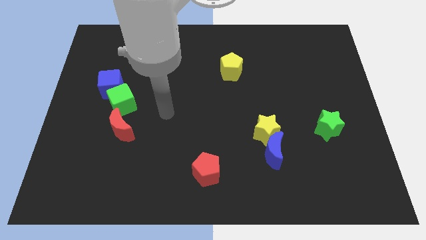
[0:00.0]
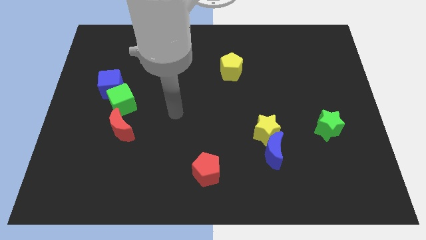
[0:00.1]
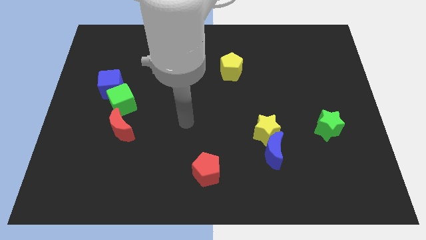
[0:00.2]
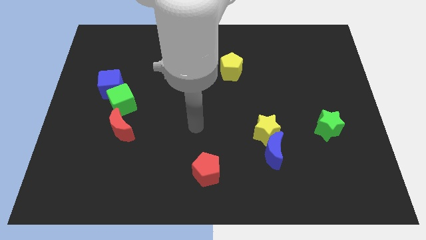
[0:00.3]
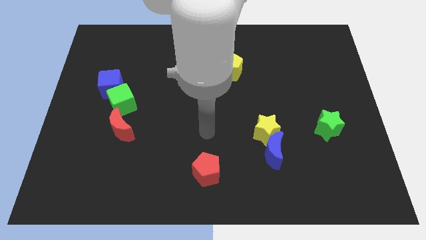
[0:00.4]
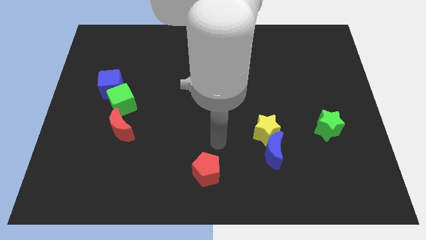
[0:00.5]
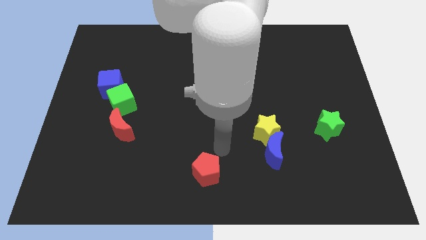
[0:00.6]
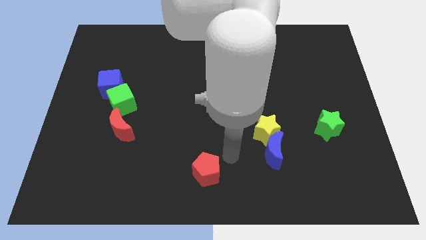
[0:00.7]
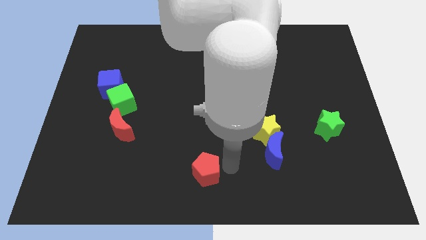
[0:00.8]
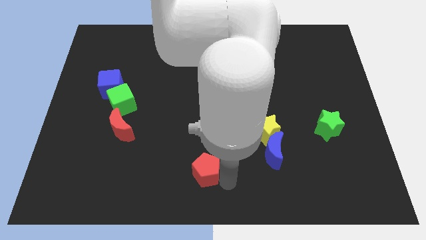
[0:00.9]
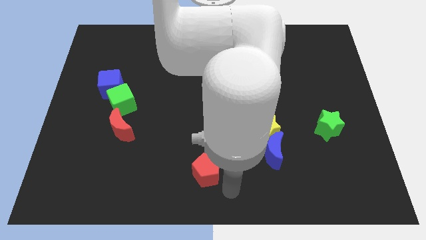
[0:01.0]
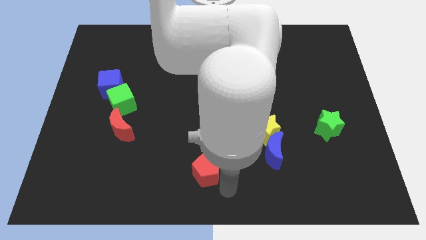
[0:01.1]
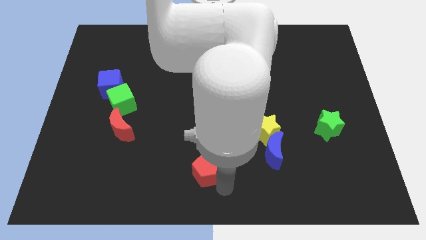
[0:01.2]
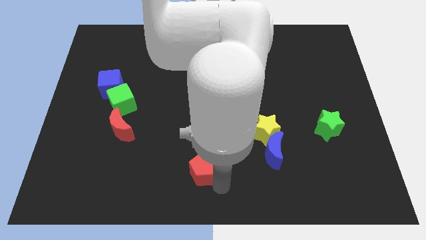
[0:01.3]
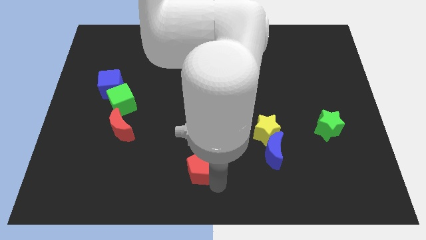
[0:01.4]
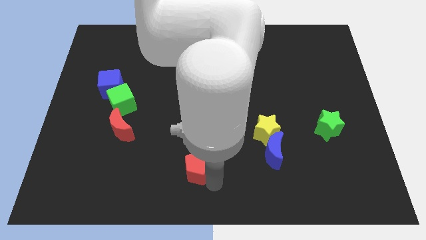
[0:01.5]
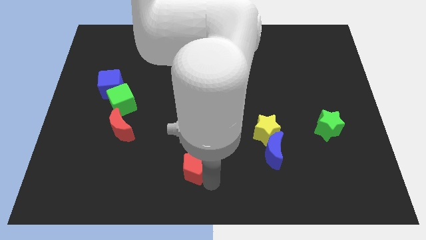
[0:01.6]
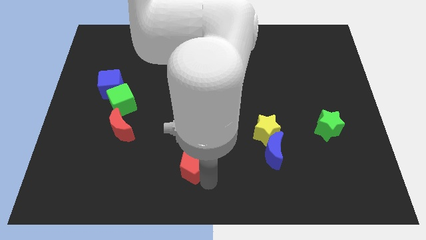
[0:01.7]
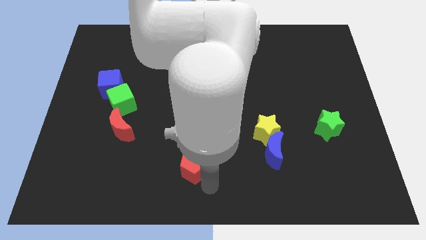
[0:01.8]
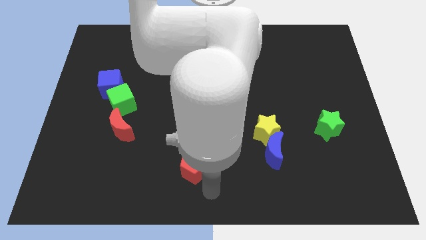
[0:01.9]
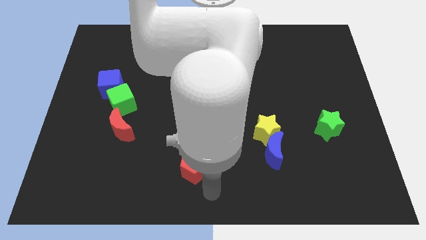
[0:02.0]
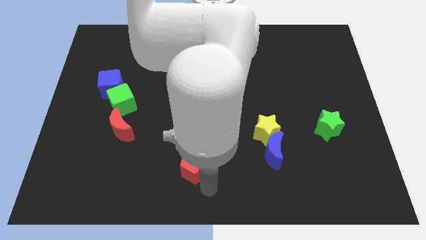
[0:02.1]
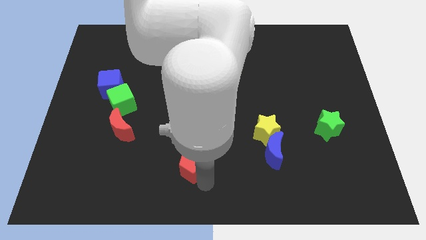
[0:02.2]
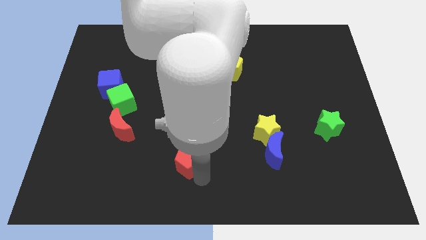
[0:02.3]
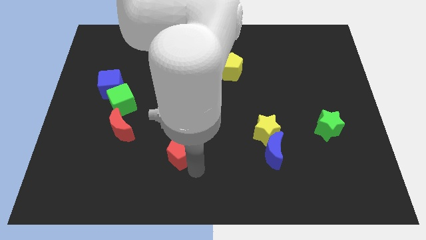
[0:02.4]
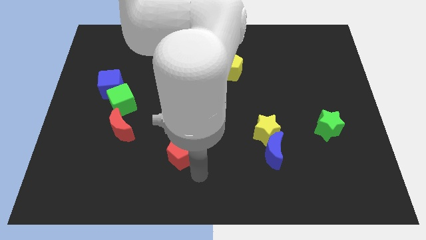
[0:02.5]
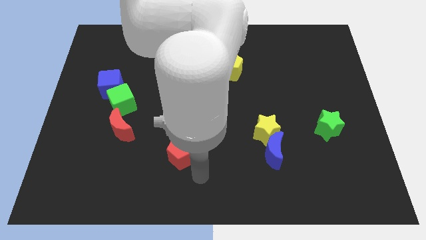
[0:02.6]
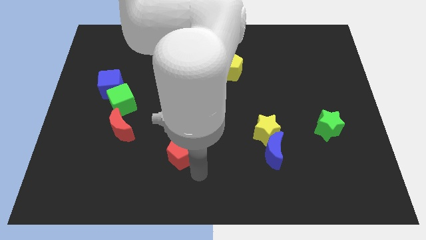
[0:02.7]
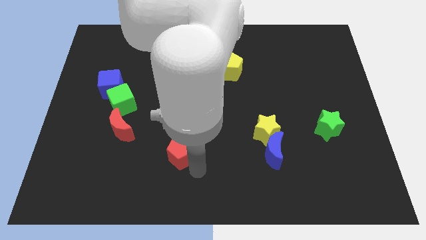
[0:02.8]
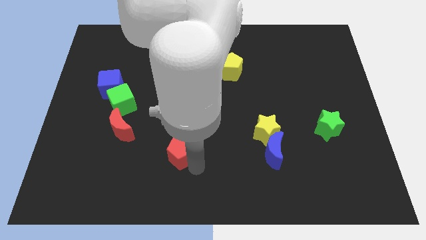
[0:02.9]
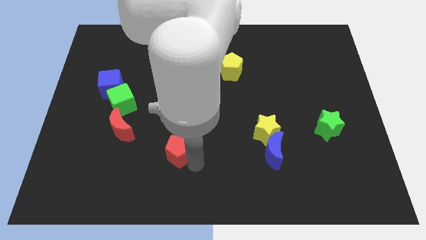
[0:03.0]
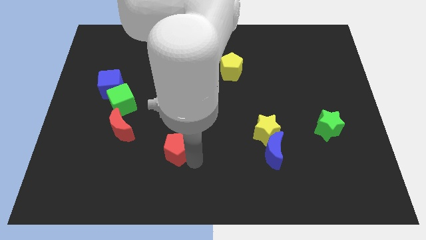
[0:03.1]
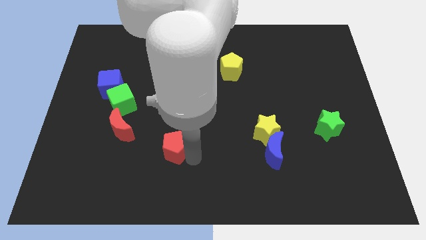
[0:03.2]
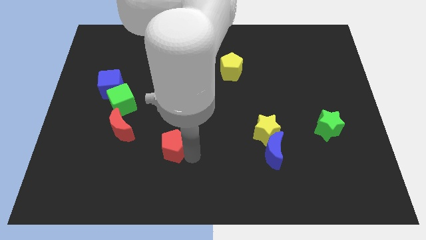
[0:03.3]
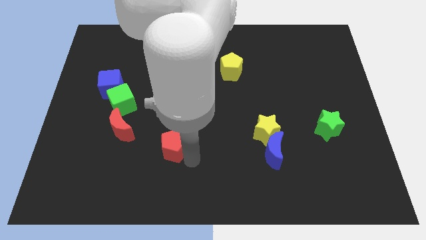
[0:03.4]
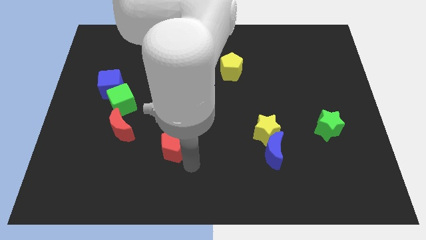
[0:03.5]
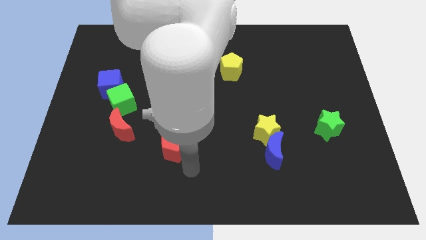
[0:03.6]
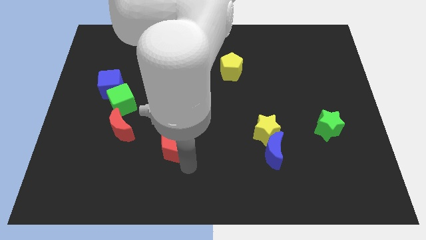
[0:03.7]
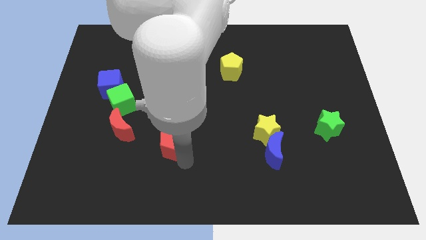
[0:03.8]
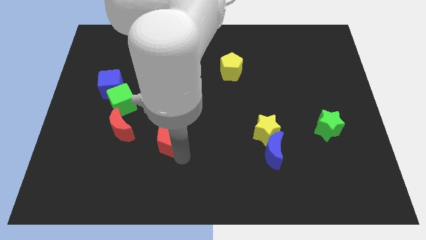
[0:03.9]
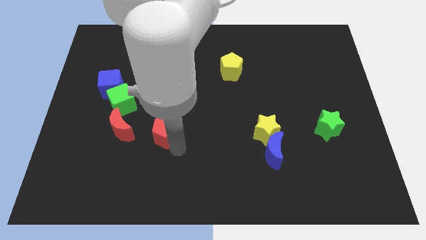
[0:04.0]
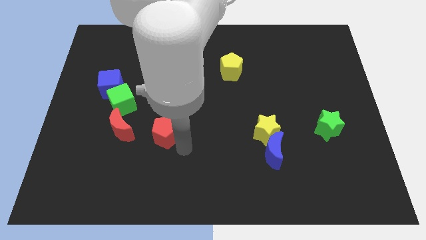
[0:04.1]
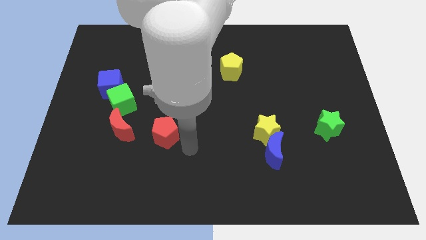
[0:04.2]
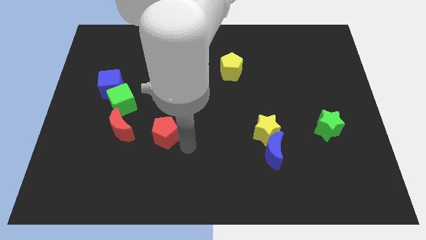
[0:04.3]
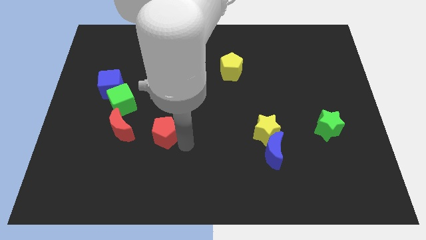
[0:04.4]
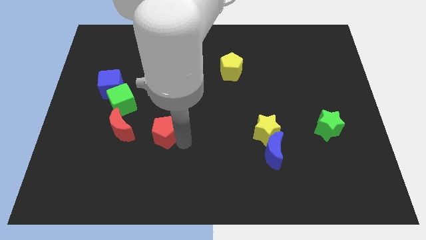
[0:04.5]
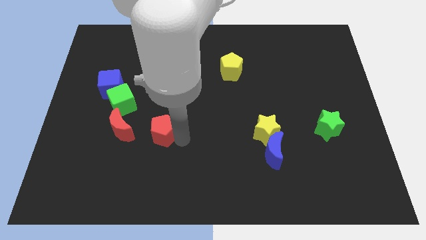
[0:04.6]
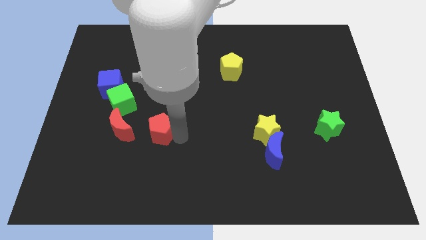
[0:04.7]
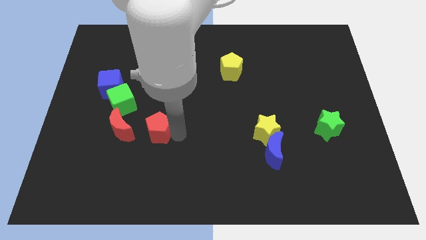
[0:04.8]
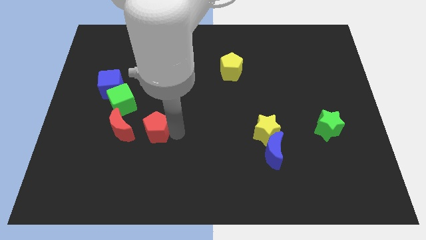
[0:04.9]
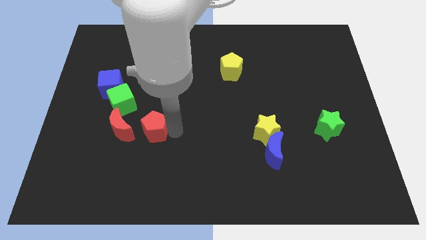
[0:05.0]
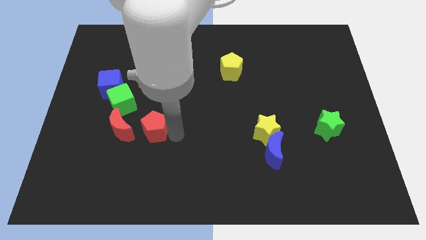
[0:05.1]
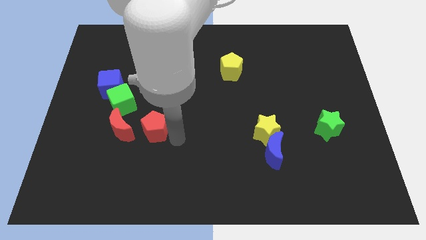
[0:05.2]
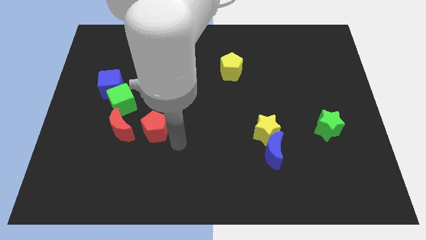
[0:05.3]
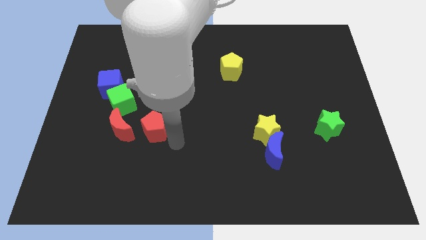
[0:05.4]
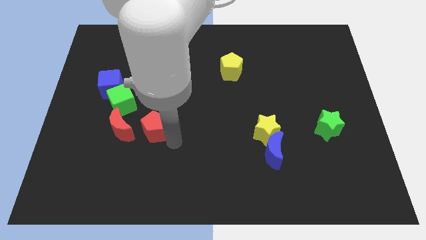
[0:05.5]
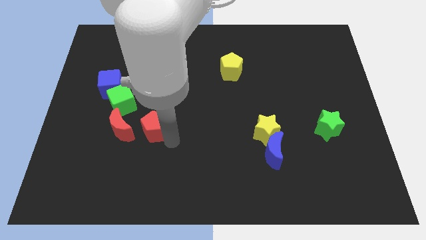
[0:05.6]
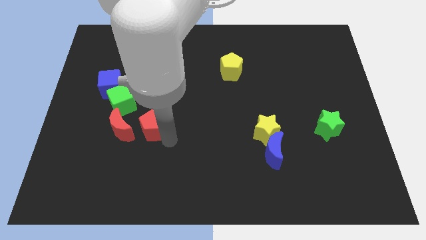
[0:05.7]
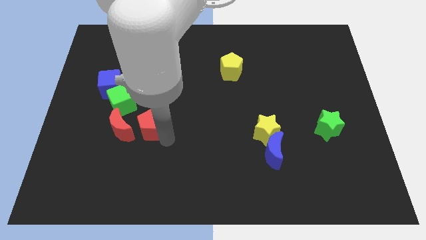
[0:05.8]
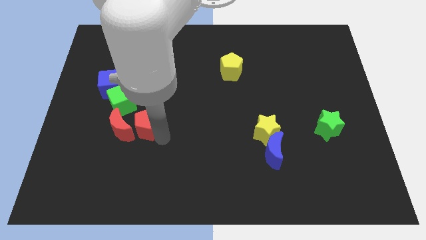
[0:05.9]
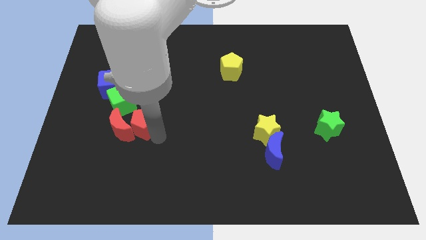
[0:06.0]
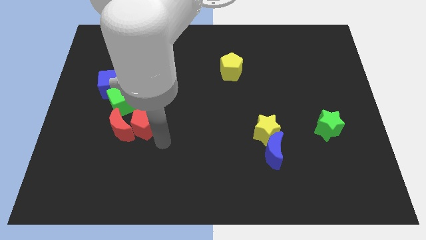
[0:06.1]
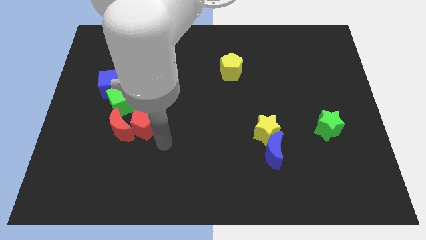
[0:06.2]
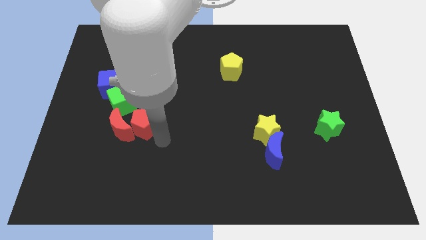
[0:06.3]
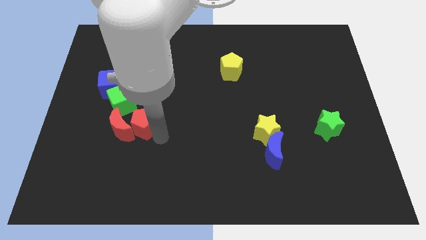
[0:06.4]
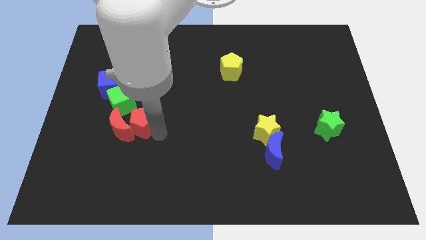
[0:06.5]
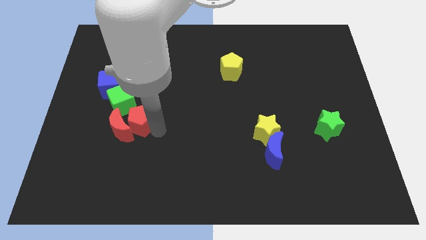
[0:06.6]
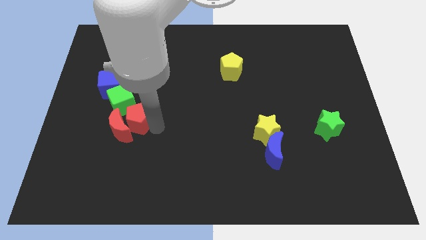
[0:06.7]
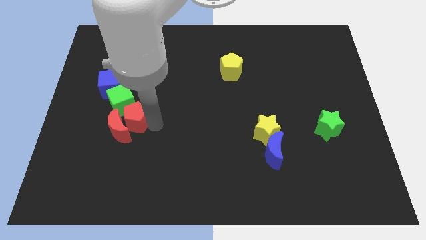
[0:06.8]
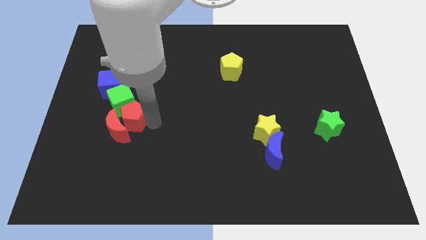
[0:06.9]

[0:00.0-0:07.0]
put the red pentagon towards the green cube

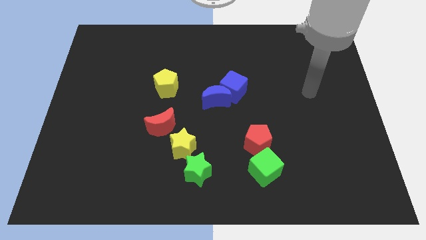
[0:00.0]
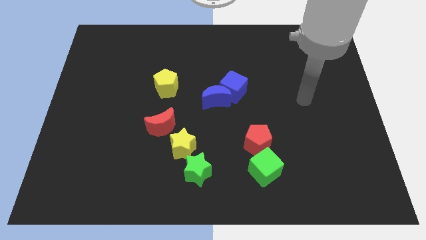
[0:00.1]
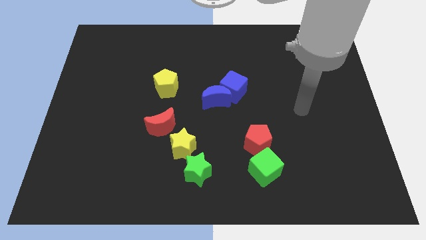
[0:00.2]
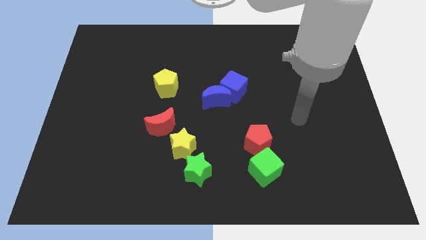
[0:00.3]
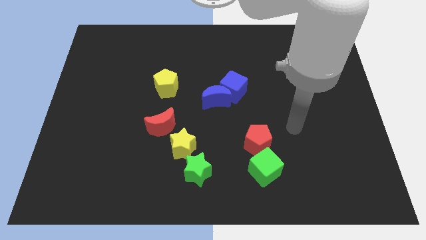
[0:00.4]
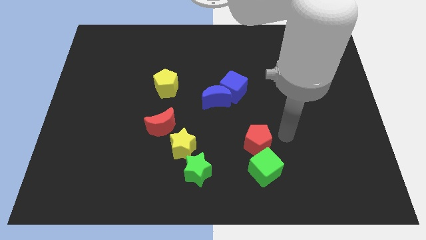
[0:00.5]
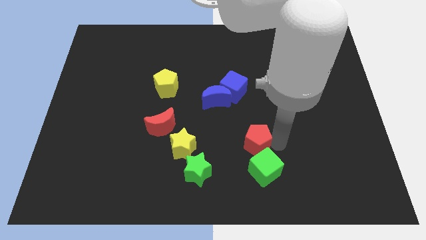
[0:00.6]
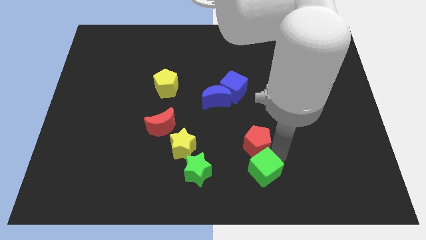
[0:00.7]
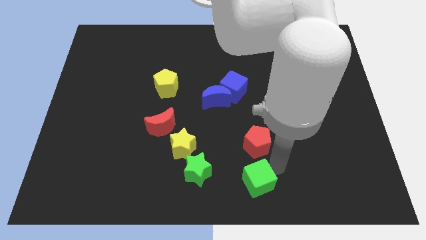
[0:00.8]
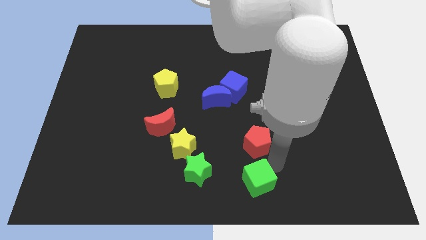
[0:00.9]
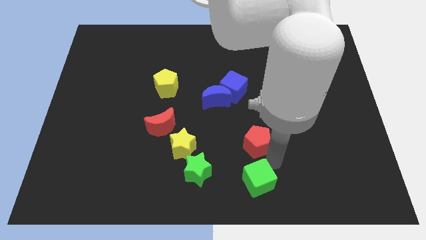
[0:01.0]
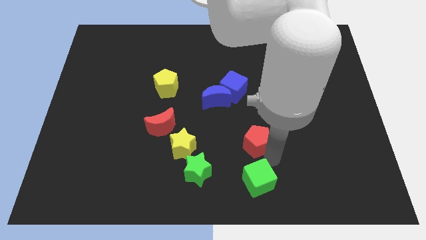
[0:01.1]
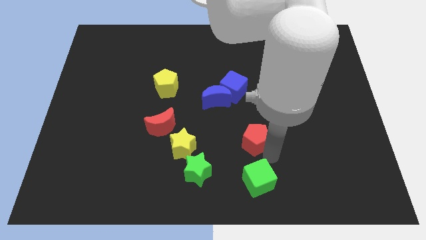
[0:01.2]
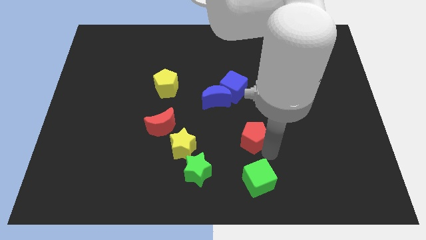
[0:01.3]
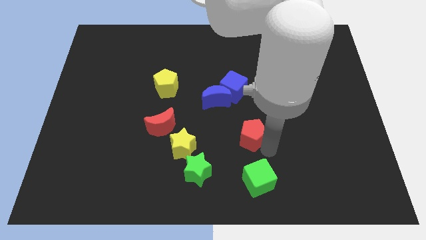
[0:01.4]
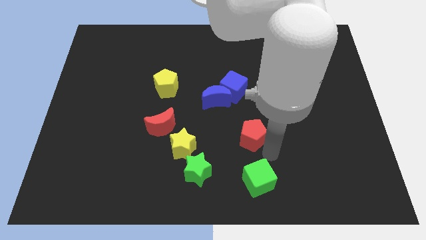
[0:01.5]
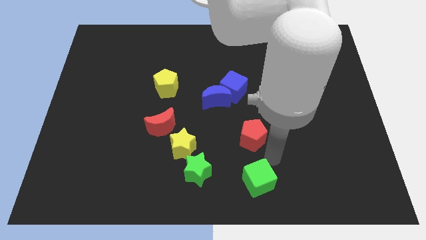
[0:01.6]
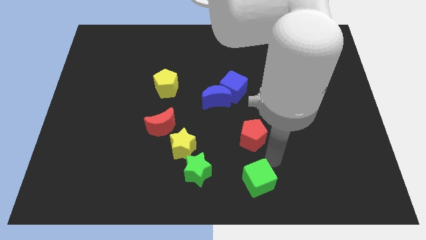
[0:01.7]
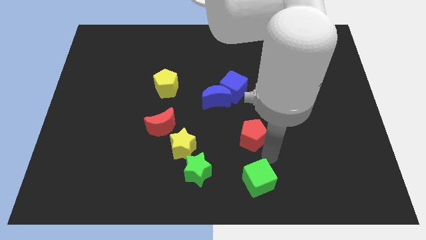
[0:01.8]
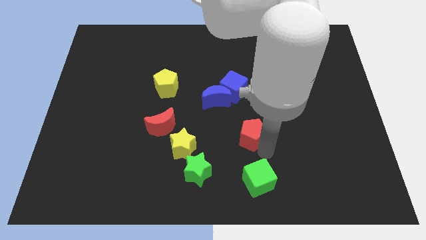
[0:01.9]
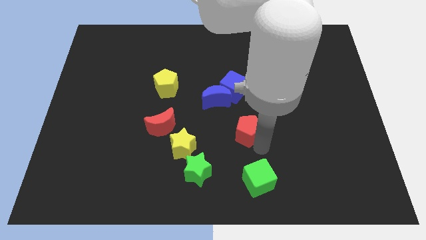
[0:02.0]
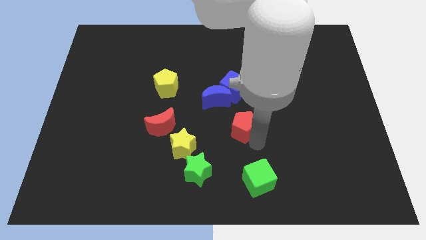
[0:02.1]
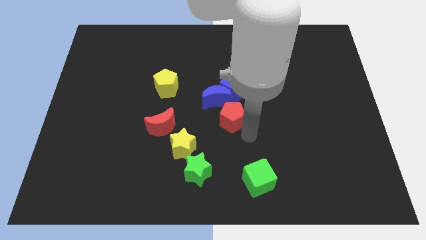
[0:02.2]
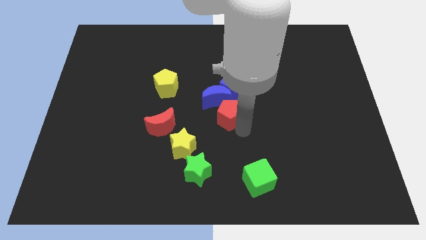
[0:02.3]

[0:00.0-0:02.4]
push the red pentagon towards the blue moon
